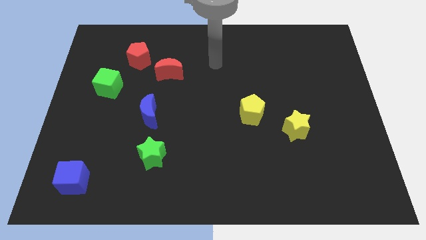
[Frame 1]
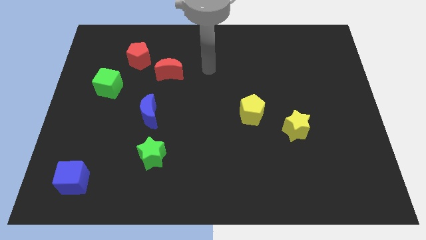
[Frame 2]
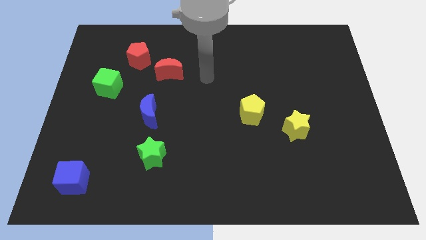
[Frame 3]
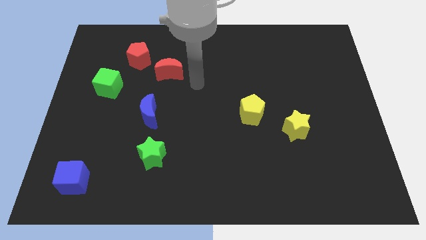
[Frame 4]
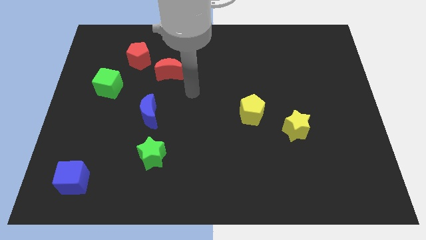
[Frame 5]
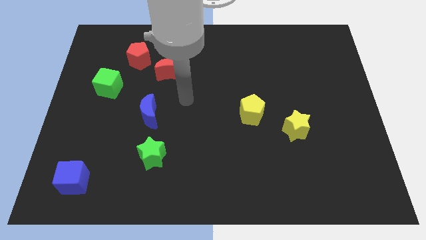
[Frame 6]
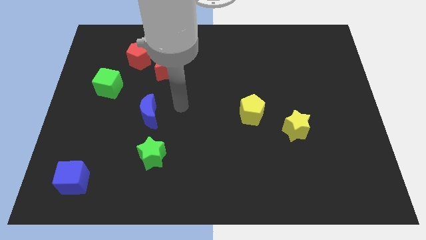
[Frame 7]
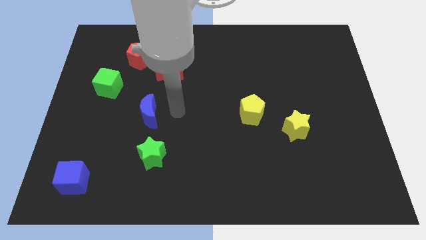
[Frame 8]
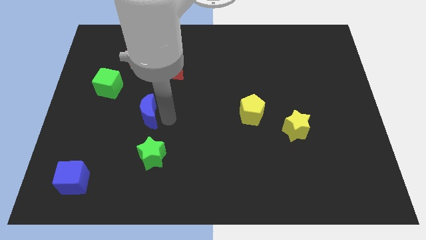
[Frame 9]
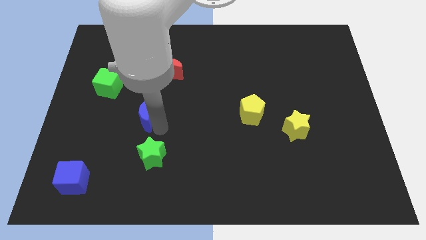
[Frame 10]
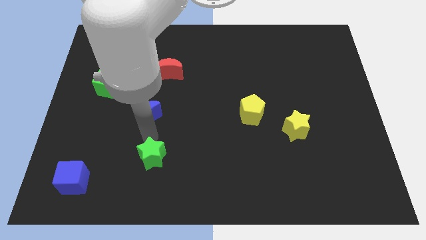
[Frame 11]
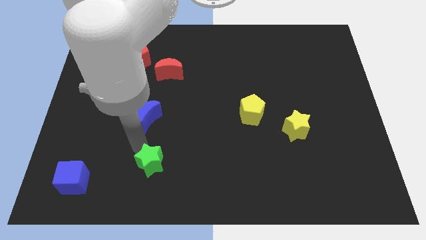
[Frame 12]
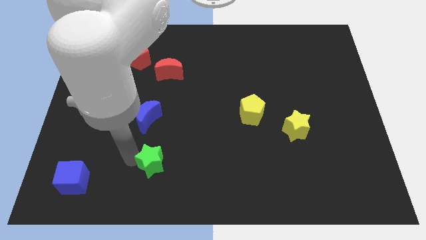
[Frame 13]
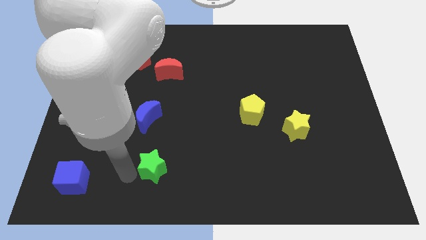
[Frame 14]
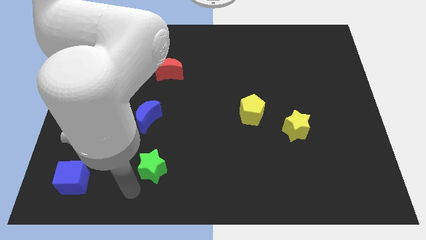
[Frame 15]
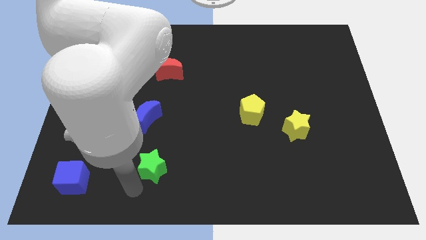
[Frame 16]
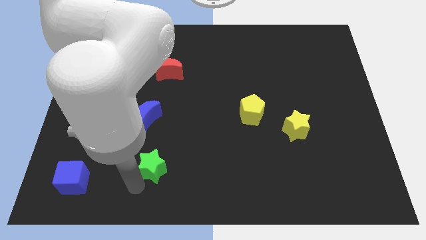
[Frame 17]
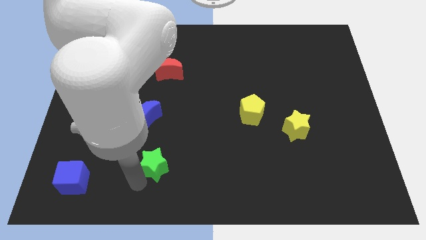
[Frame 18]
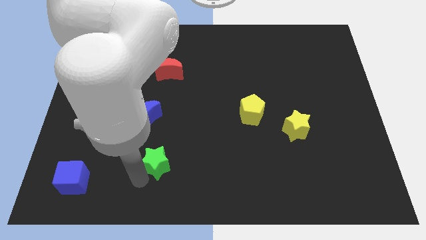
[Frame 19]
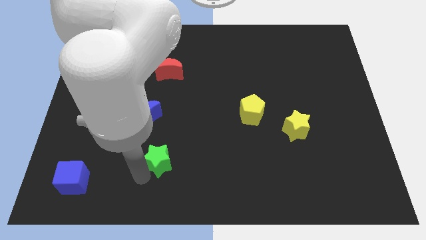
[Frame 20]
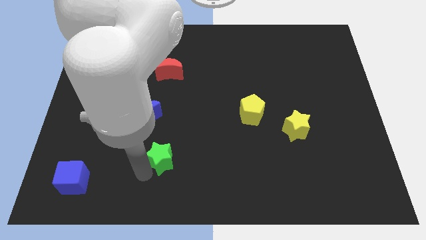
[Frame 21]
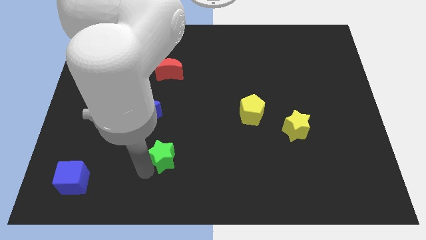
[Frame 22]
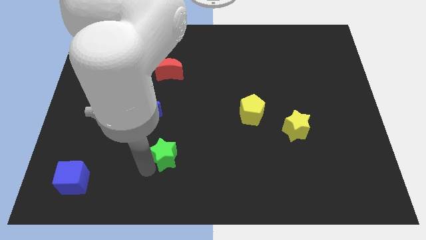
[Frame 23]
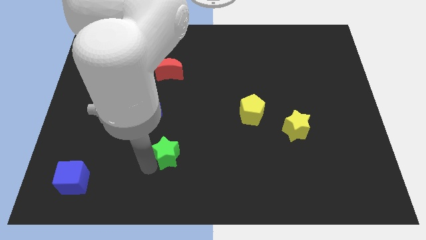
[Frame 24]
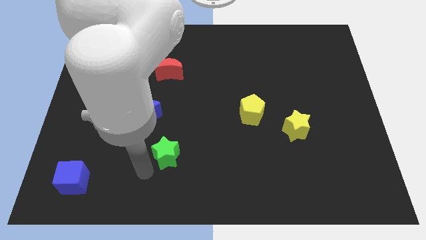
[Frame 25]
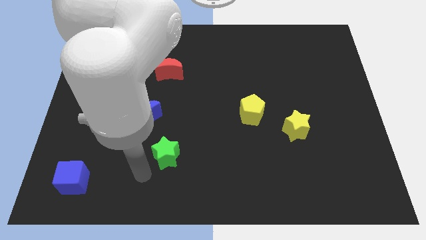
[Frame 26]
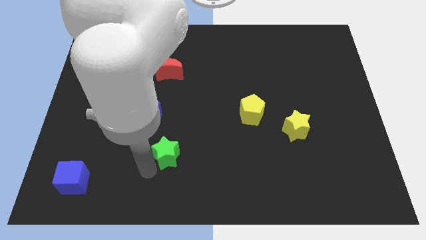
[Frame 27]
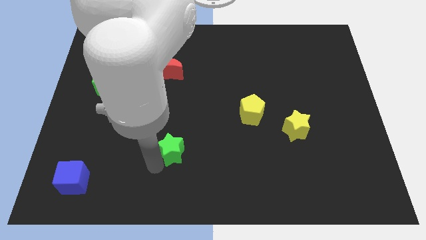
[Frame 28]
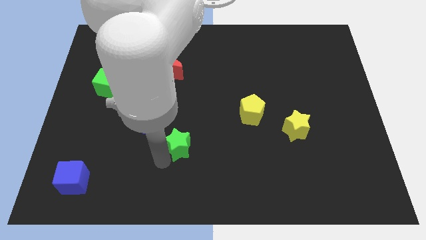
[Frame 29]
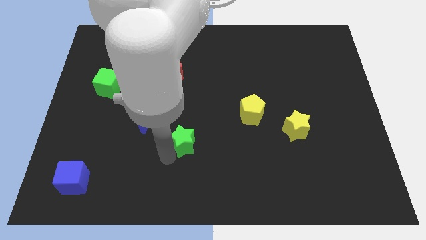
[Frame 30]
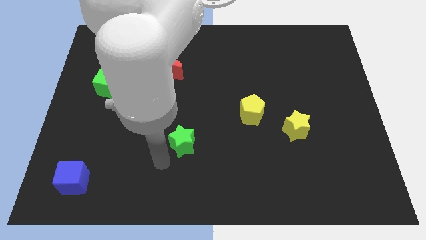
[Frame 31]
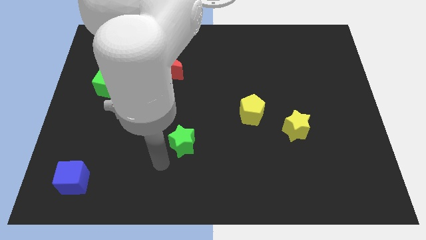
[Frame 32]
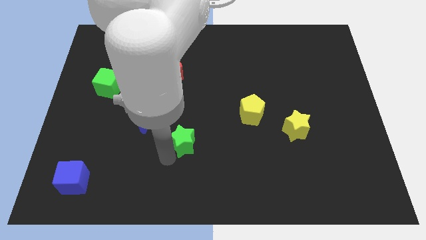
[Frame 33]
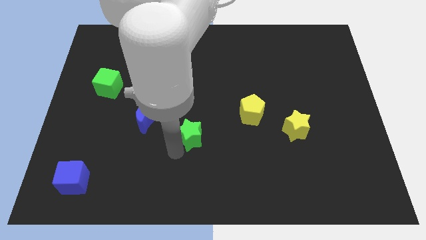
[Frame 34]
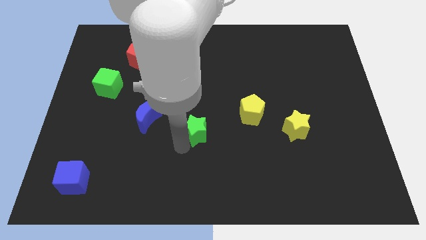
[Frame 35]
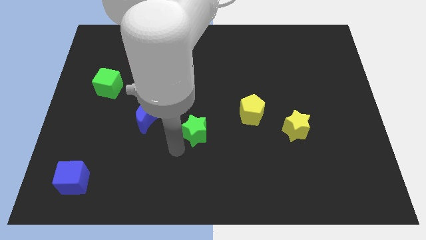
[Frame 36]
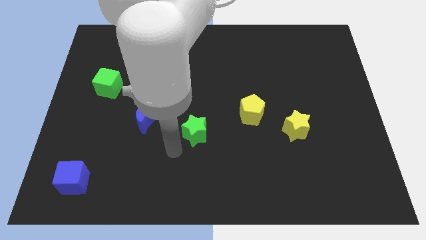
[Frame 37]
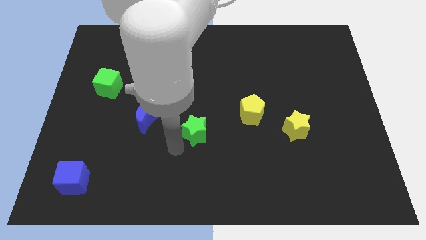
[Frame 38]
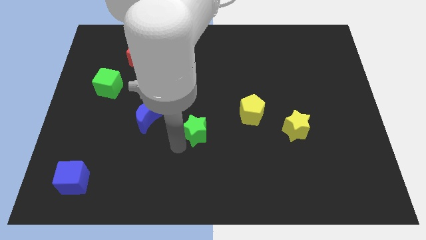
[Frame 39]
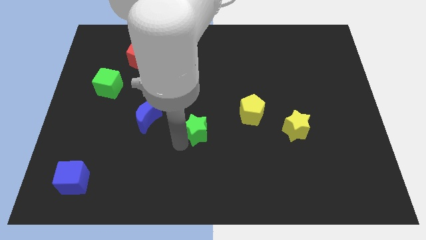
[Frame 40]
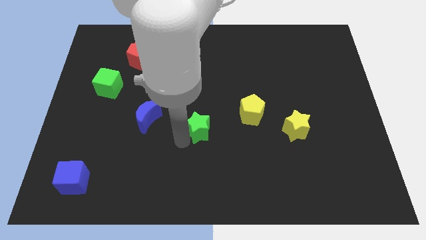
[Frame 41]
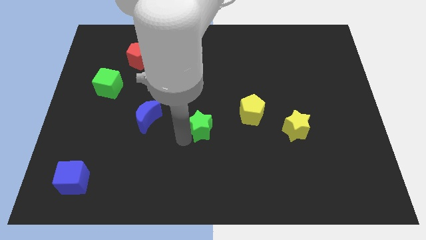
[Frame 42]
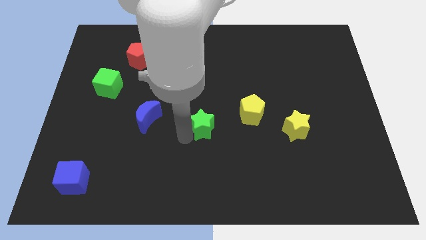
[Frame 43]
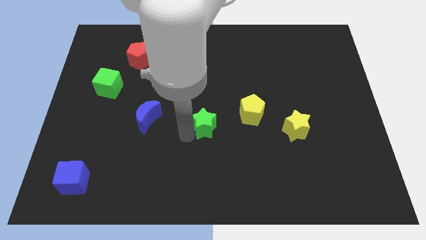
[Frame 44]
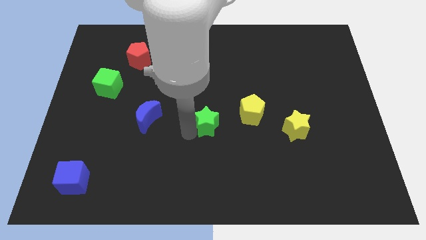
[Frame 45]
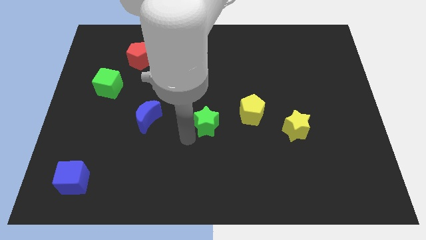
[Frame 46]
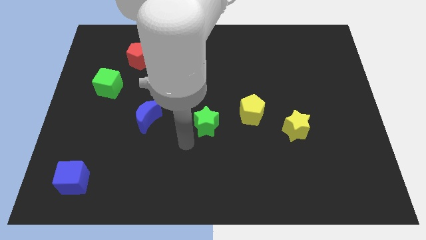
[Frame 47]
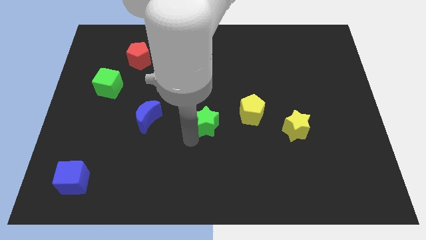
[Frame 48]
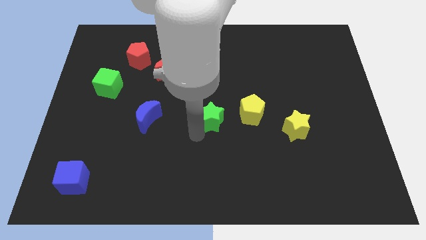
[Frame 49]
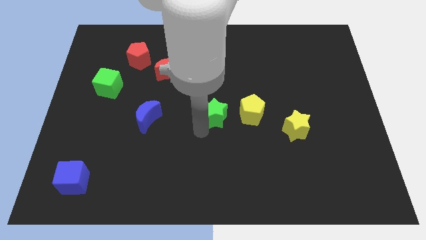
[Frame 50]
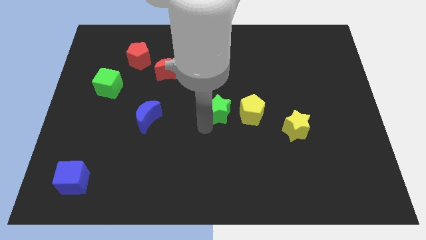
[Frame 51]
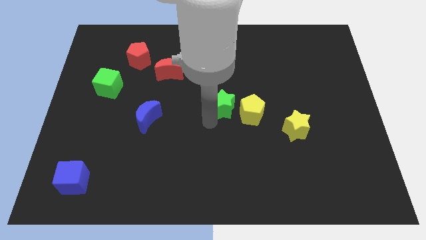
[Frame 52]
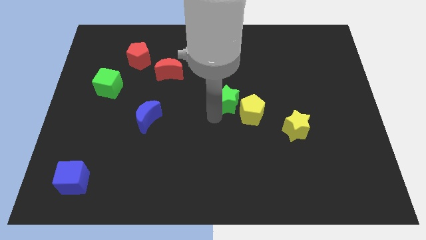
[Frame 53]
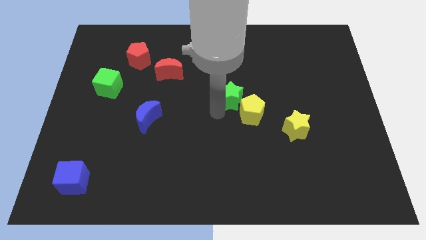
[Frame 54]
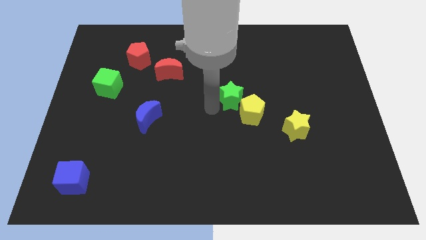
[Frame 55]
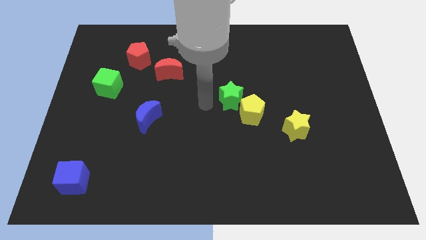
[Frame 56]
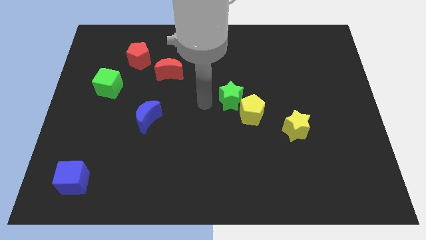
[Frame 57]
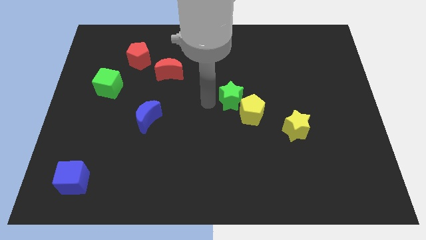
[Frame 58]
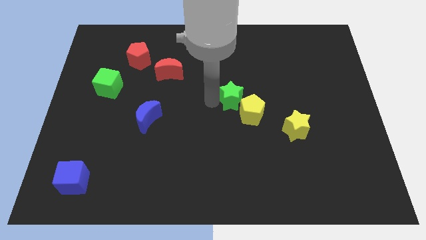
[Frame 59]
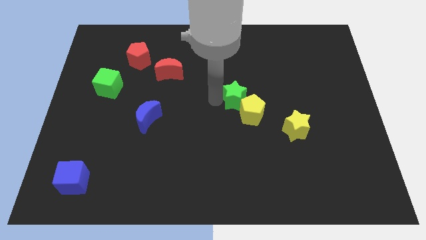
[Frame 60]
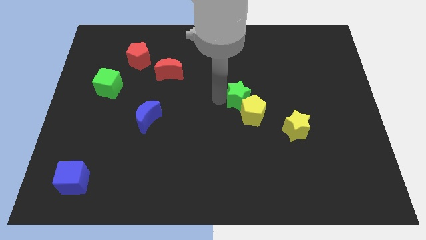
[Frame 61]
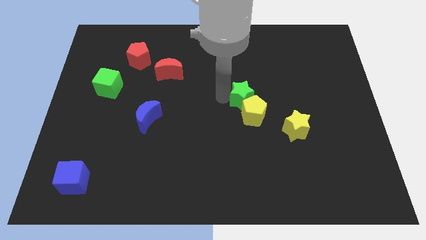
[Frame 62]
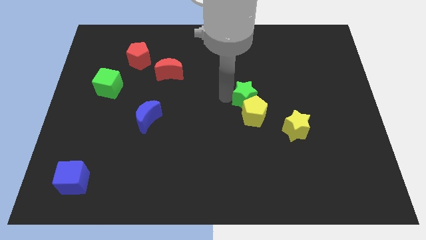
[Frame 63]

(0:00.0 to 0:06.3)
push the green star to the top right of the yellow pentagon

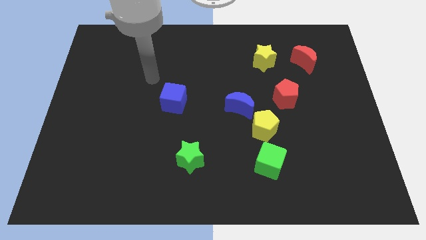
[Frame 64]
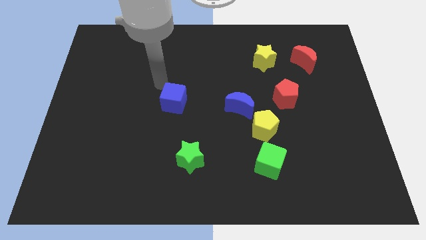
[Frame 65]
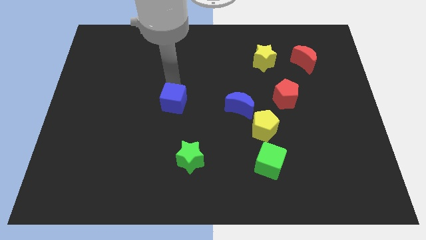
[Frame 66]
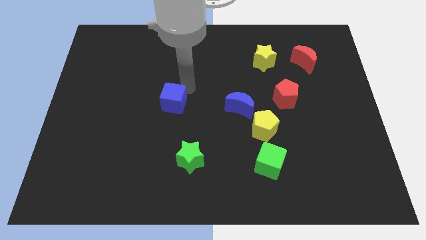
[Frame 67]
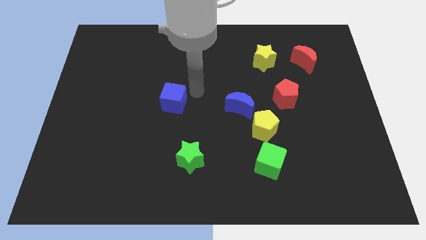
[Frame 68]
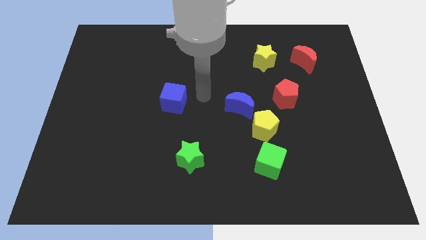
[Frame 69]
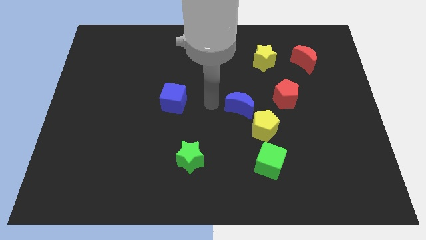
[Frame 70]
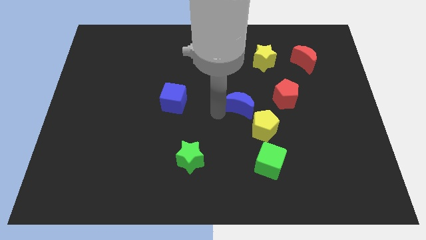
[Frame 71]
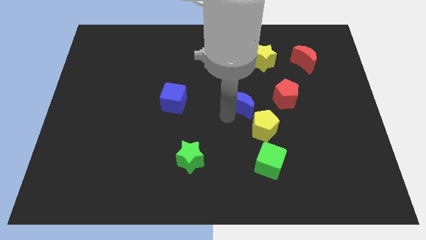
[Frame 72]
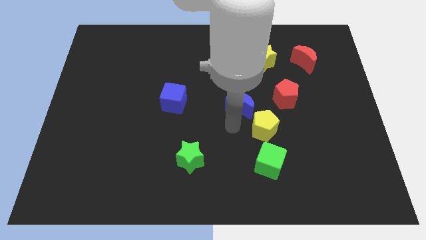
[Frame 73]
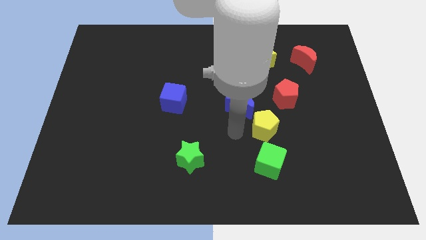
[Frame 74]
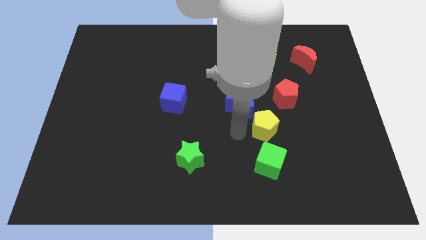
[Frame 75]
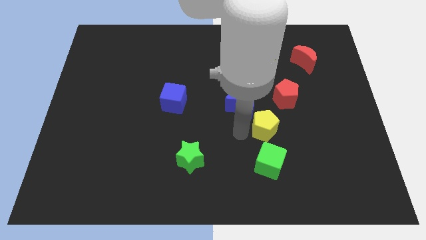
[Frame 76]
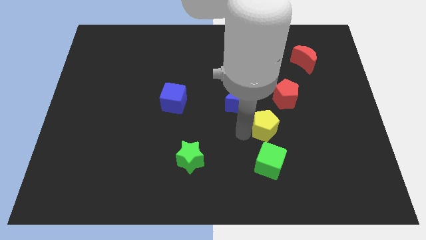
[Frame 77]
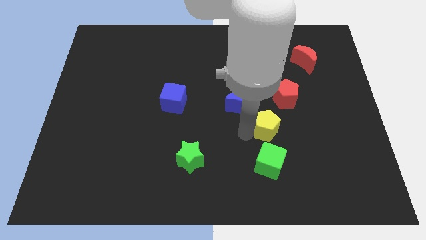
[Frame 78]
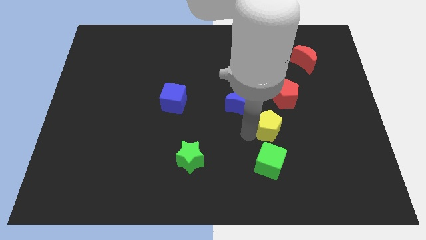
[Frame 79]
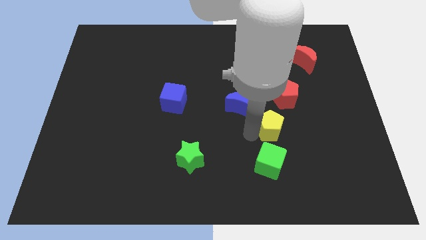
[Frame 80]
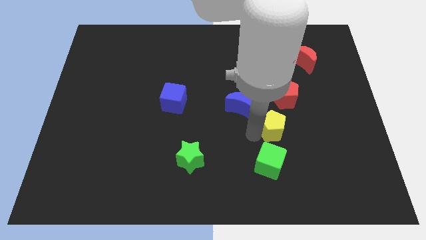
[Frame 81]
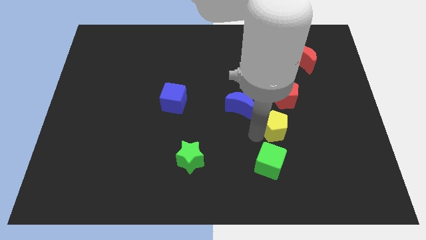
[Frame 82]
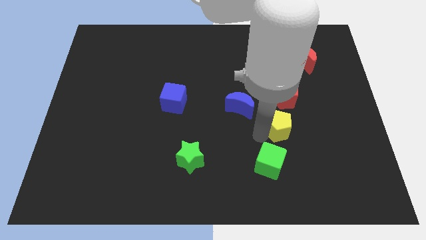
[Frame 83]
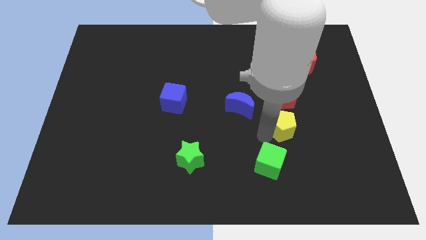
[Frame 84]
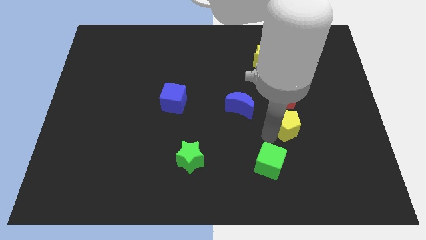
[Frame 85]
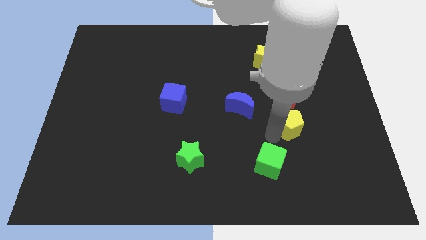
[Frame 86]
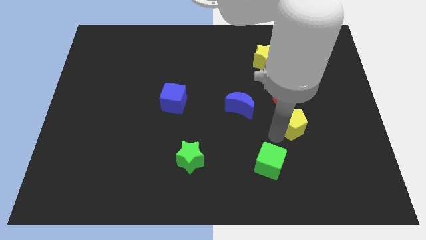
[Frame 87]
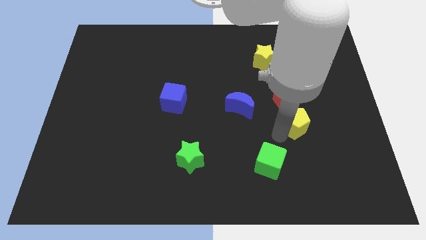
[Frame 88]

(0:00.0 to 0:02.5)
push the yellow pentagon to the bottom right side of the red pentagon
